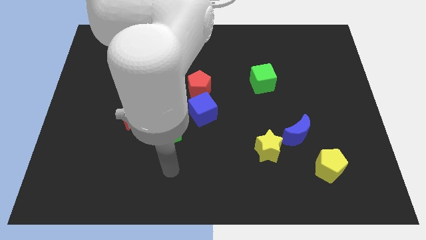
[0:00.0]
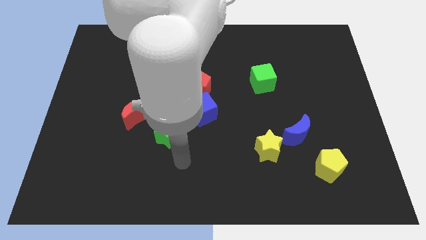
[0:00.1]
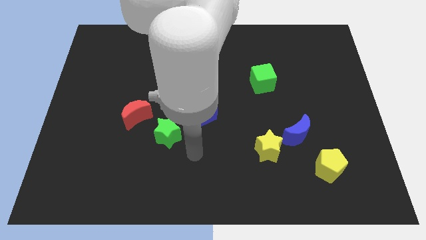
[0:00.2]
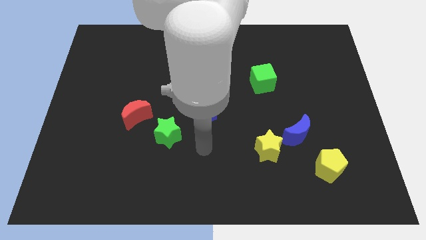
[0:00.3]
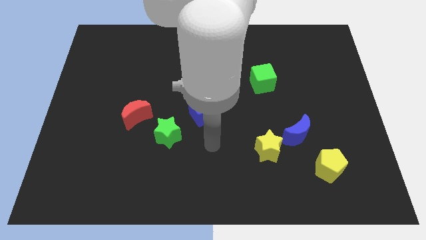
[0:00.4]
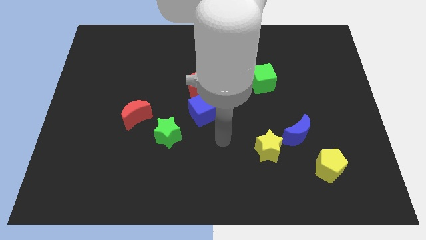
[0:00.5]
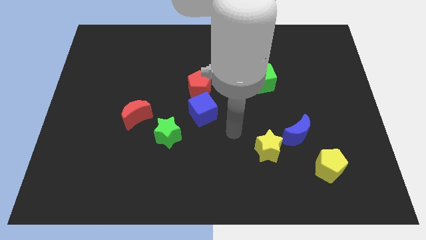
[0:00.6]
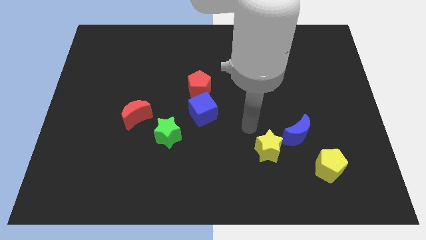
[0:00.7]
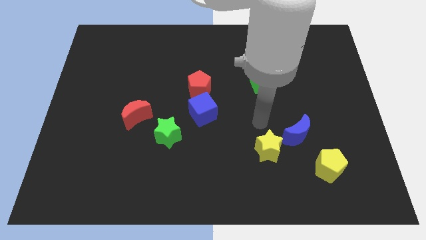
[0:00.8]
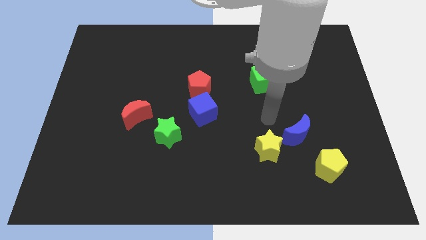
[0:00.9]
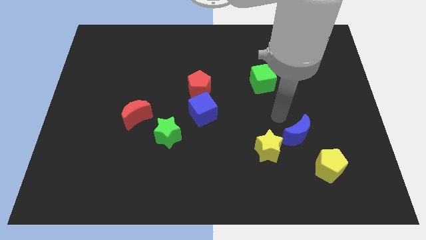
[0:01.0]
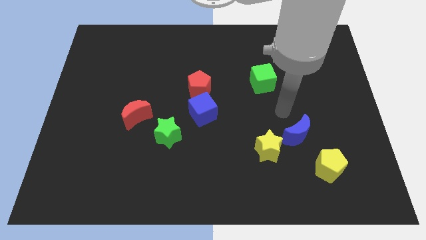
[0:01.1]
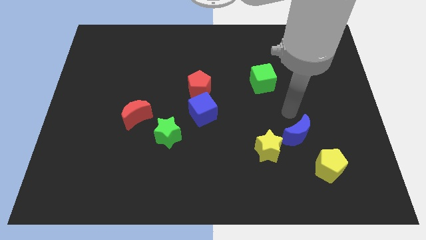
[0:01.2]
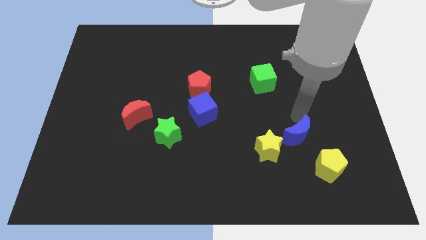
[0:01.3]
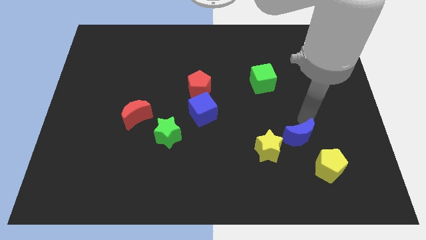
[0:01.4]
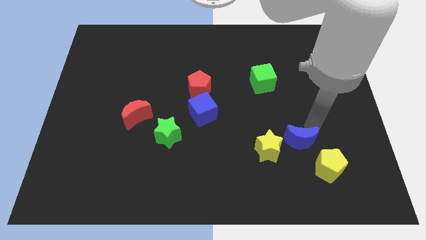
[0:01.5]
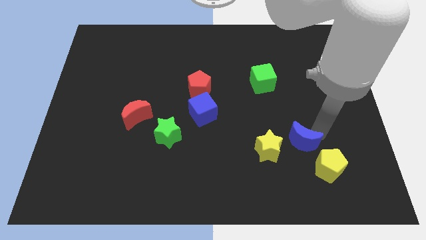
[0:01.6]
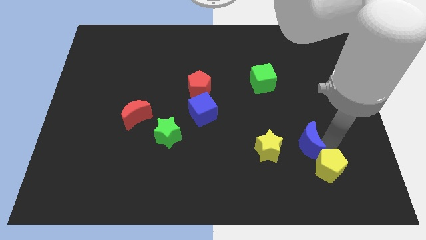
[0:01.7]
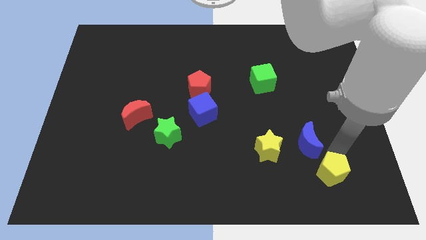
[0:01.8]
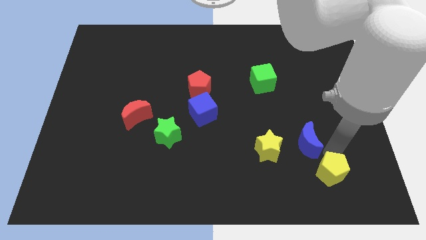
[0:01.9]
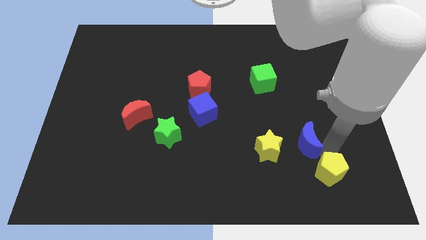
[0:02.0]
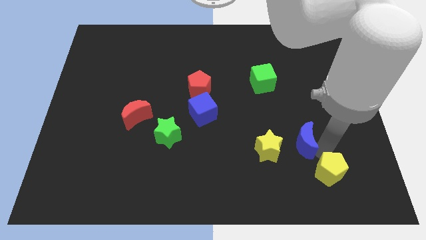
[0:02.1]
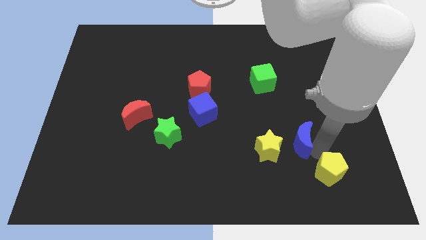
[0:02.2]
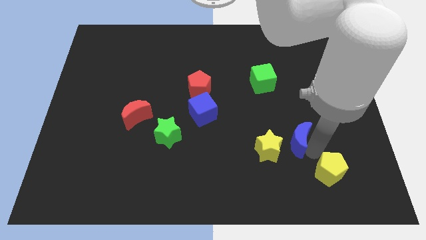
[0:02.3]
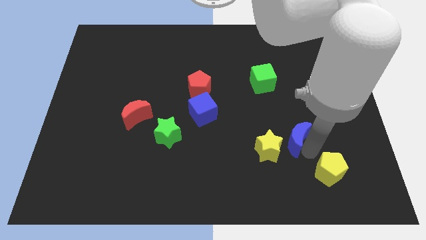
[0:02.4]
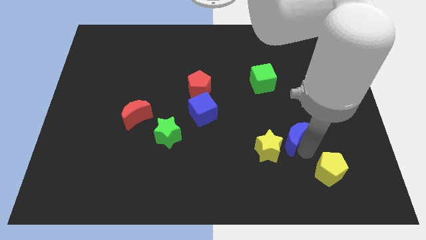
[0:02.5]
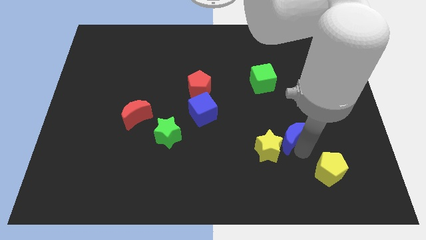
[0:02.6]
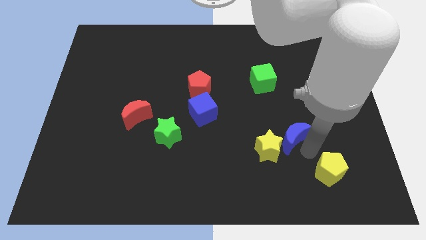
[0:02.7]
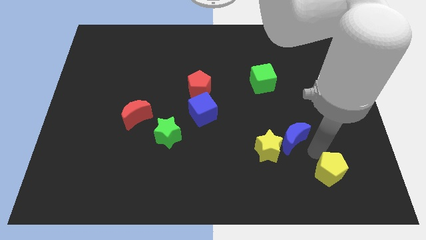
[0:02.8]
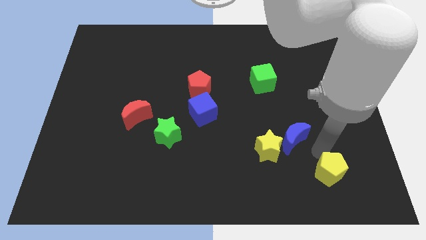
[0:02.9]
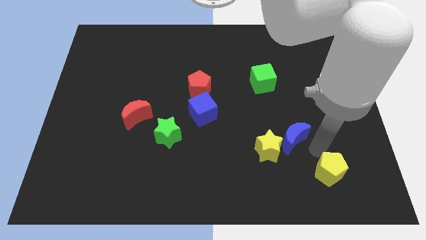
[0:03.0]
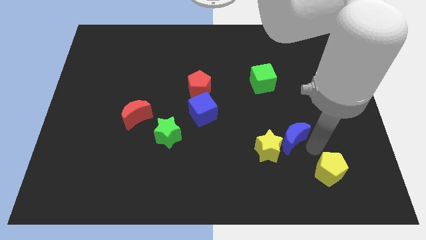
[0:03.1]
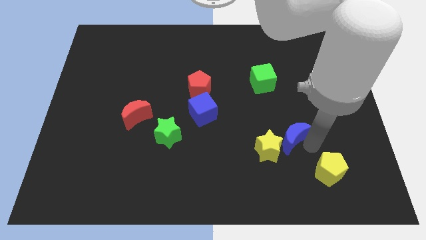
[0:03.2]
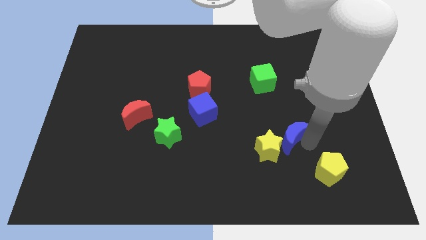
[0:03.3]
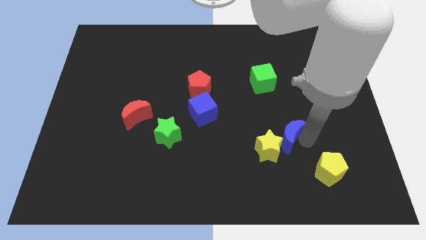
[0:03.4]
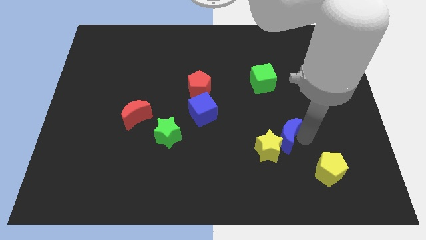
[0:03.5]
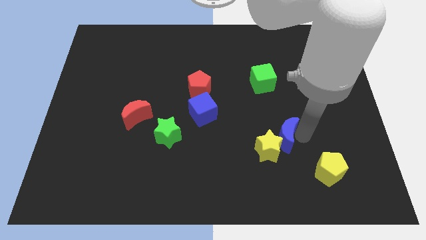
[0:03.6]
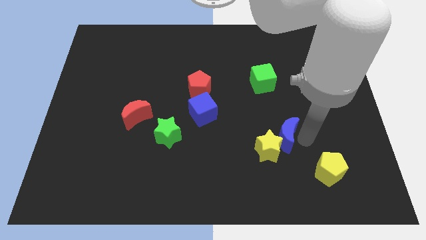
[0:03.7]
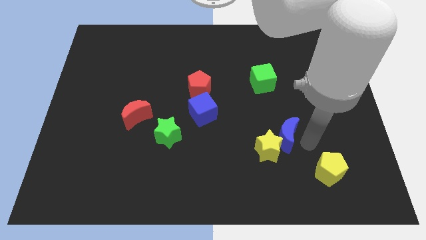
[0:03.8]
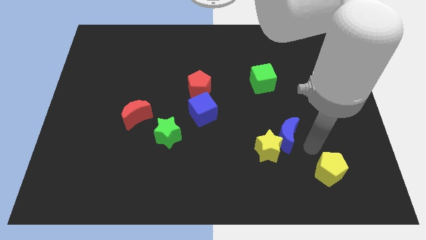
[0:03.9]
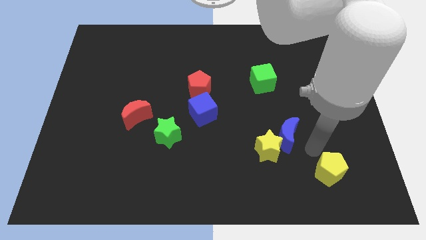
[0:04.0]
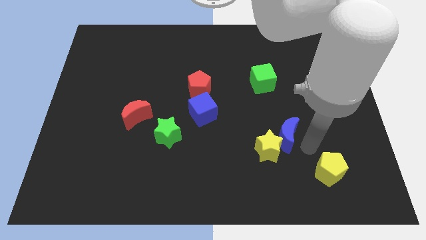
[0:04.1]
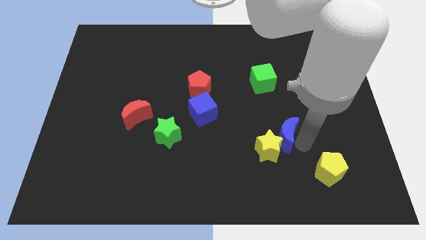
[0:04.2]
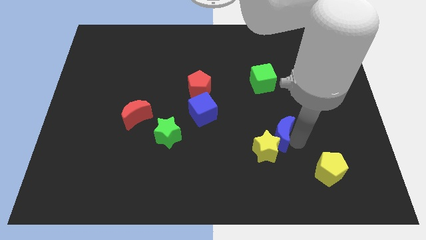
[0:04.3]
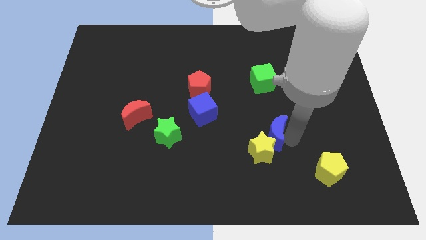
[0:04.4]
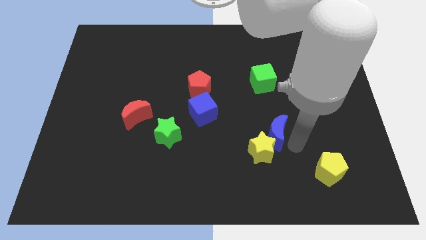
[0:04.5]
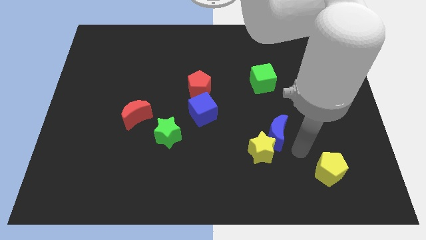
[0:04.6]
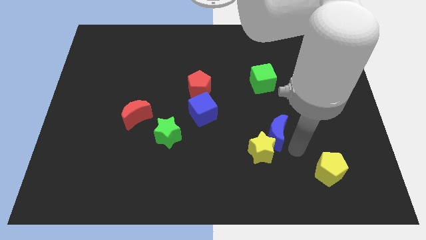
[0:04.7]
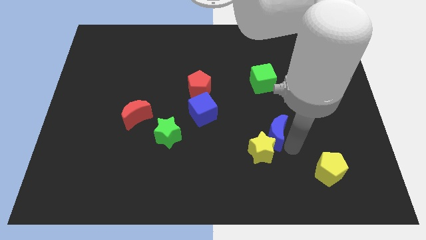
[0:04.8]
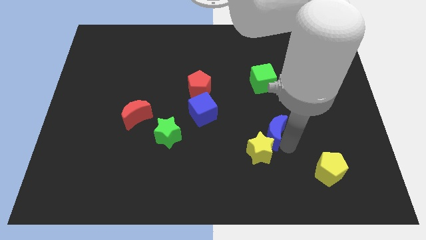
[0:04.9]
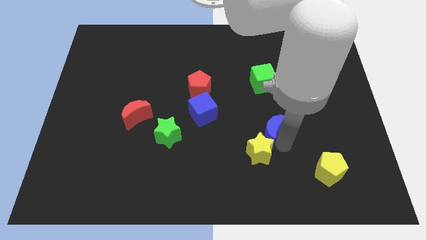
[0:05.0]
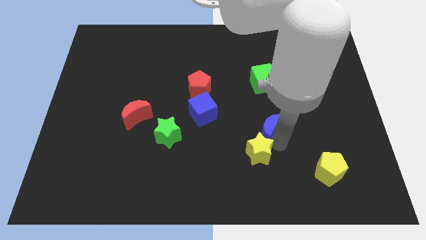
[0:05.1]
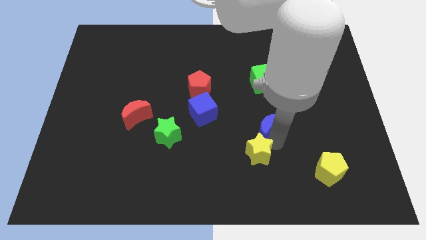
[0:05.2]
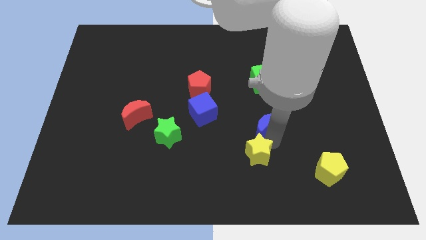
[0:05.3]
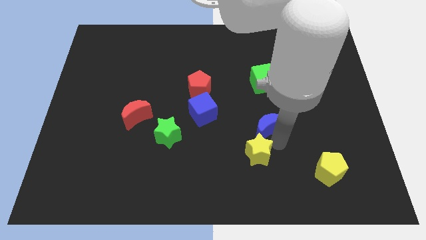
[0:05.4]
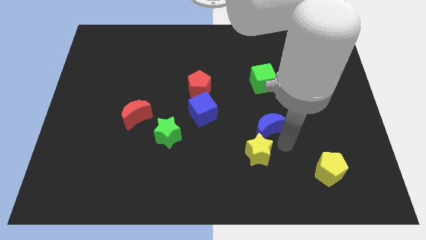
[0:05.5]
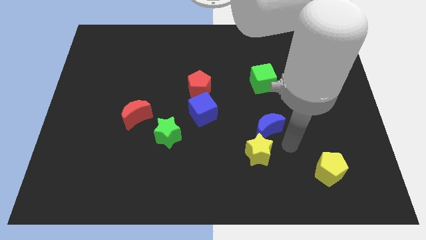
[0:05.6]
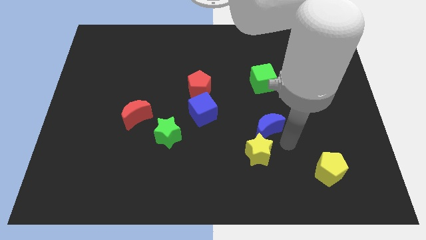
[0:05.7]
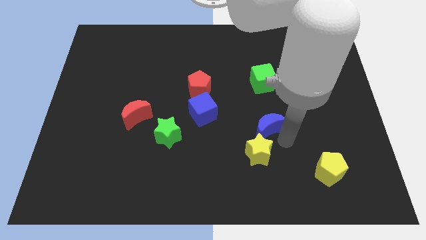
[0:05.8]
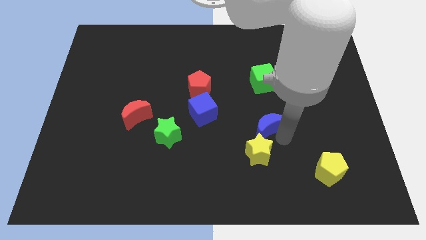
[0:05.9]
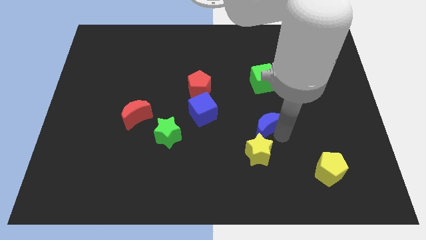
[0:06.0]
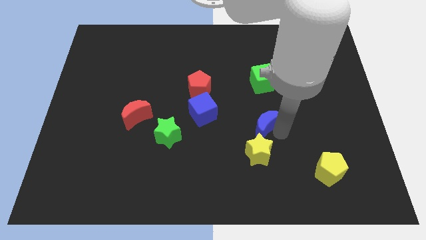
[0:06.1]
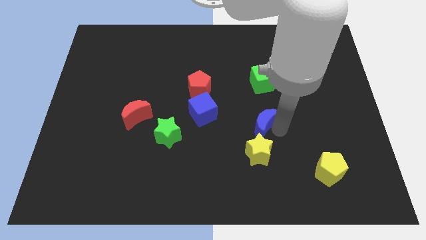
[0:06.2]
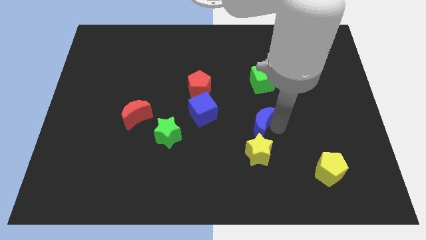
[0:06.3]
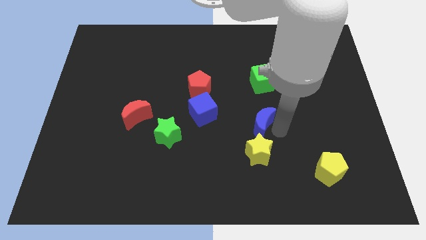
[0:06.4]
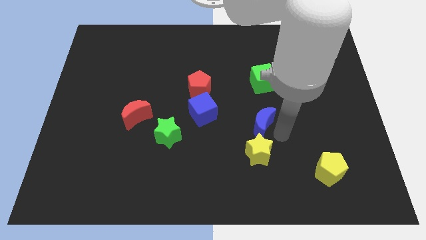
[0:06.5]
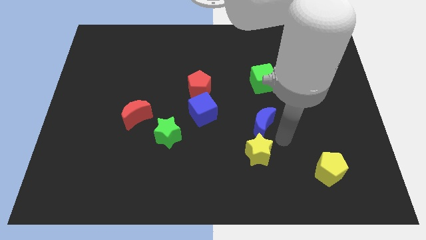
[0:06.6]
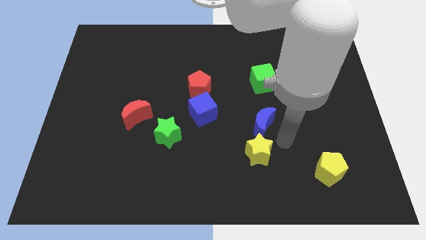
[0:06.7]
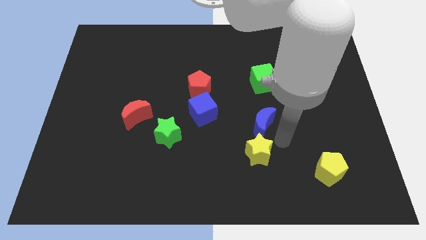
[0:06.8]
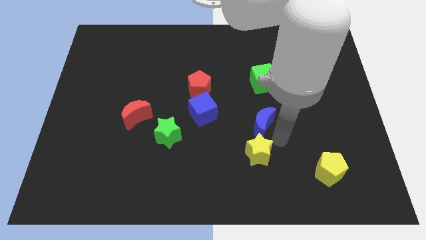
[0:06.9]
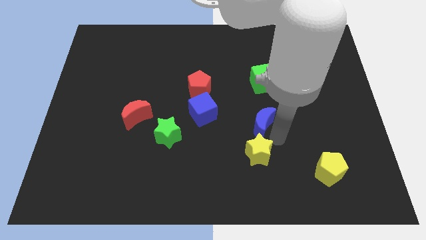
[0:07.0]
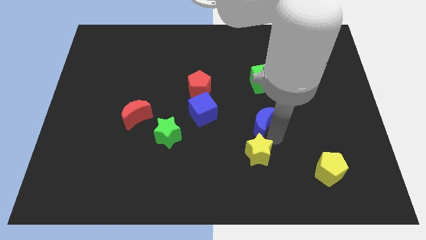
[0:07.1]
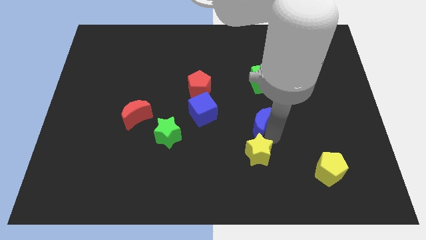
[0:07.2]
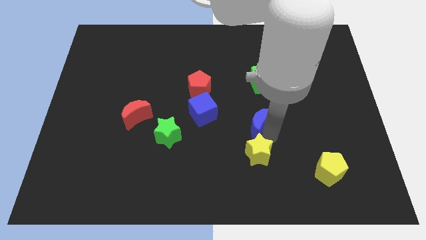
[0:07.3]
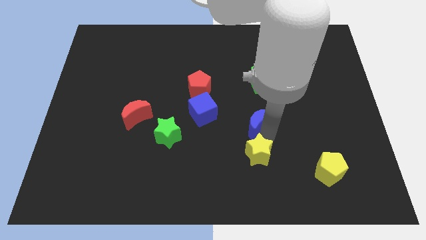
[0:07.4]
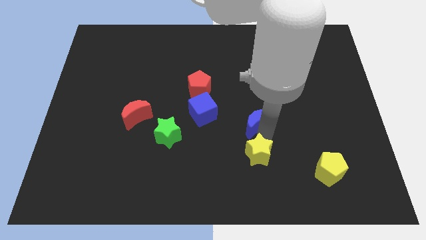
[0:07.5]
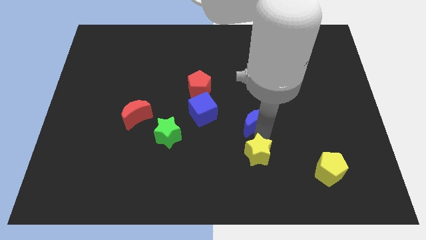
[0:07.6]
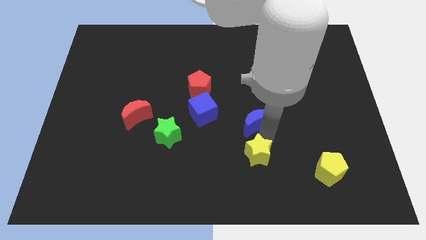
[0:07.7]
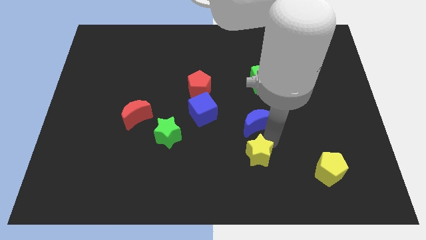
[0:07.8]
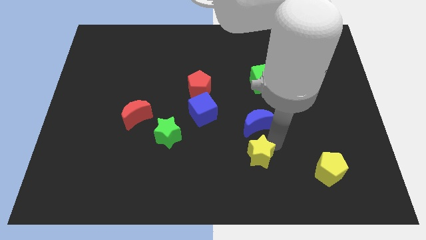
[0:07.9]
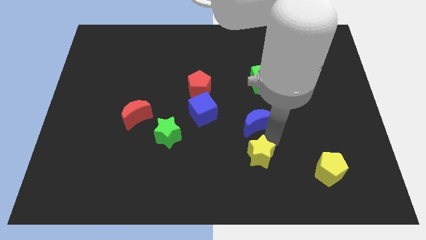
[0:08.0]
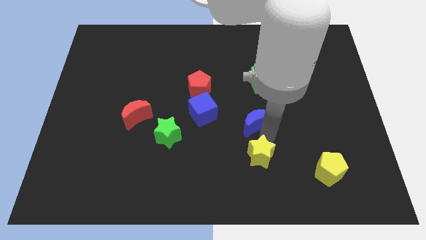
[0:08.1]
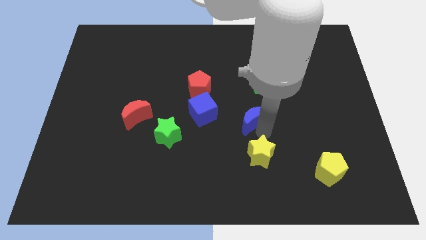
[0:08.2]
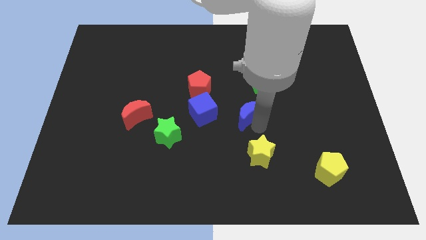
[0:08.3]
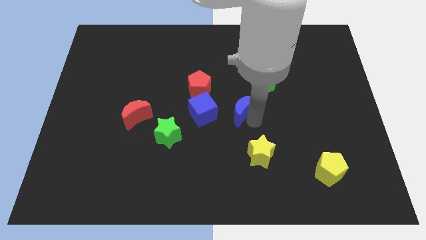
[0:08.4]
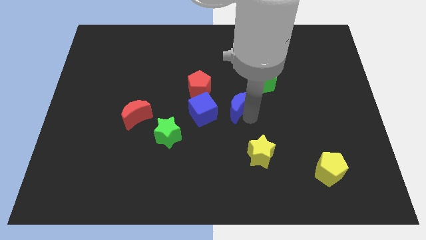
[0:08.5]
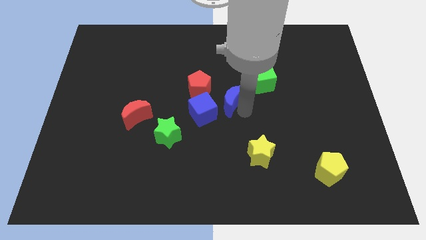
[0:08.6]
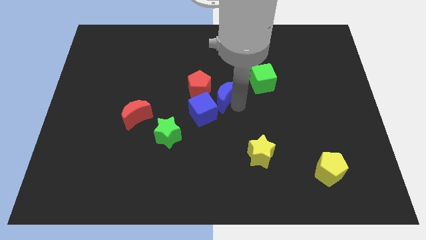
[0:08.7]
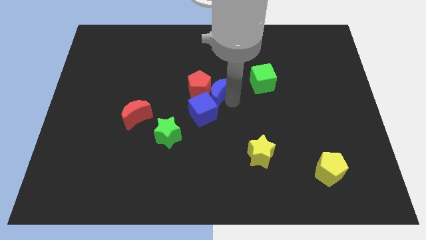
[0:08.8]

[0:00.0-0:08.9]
move the blue moon close to the red pentagon
